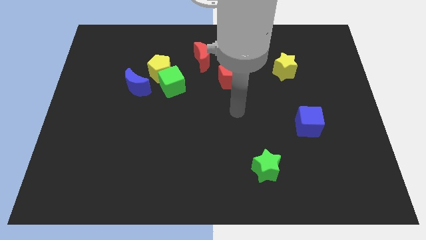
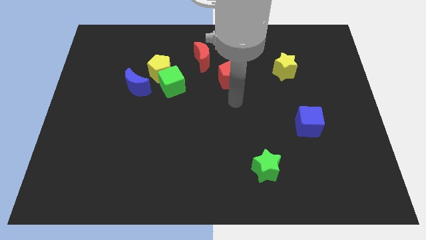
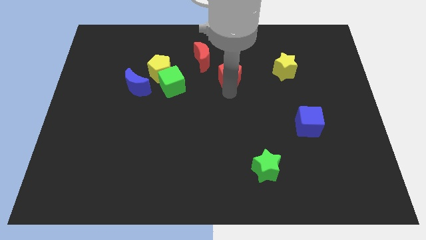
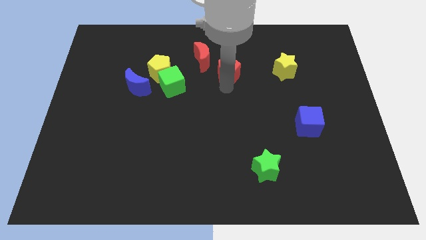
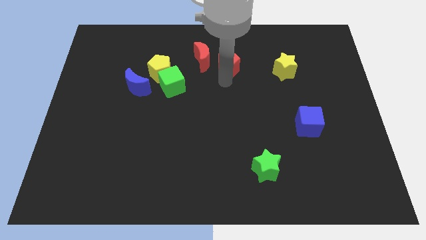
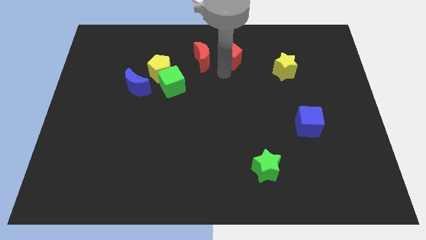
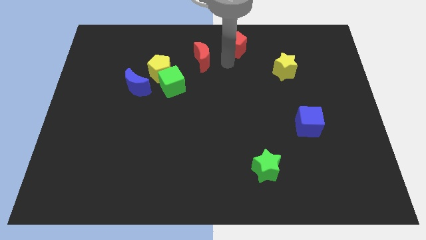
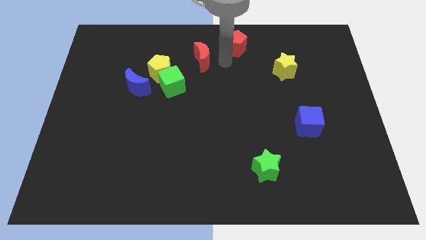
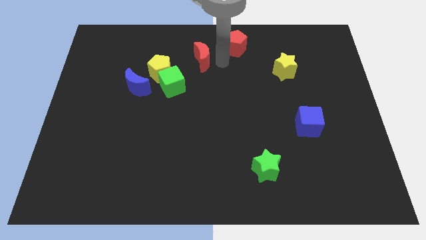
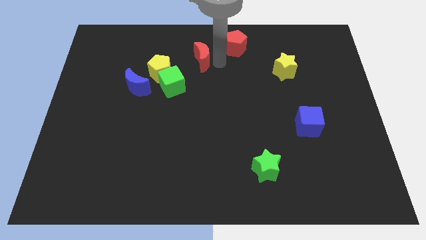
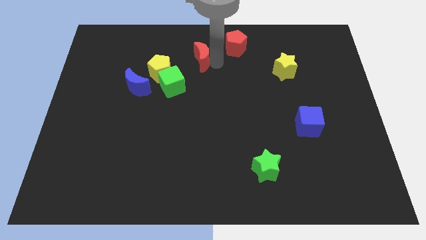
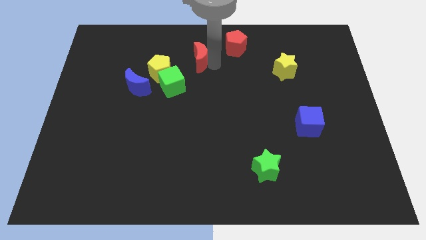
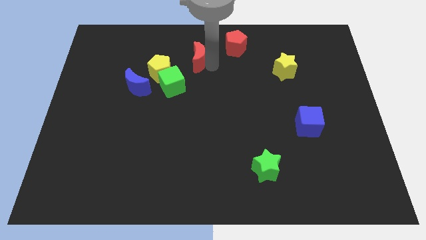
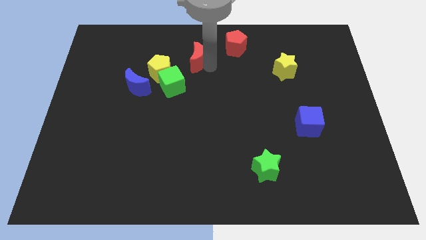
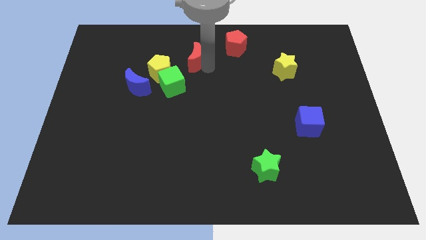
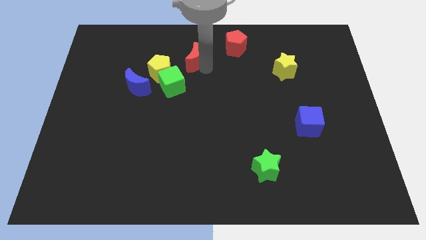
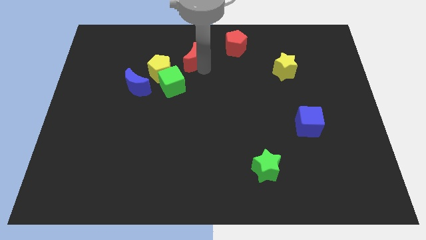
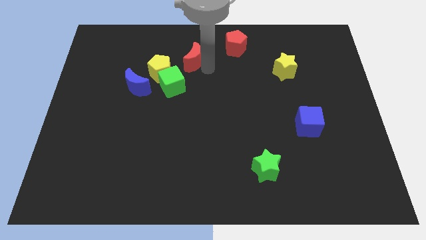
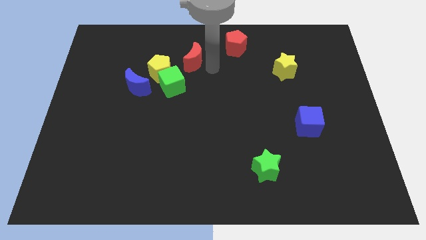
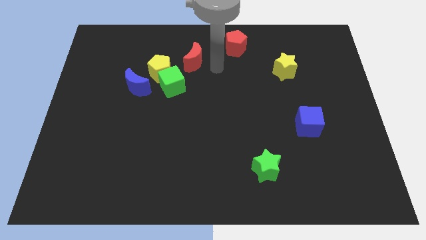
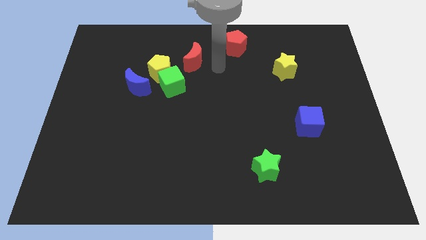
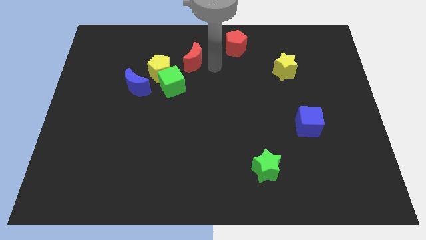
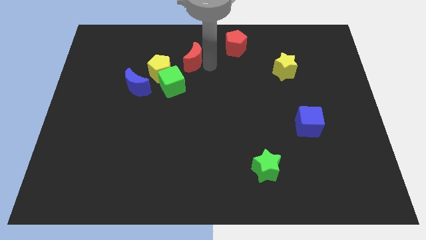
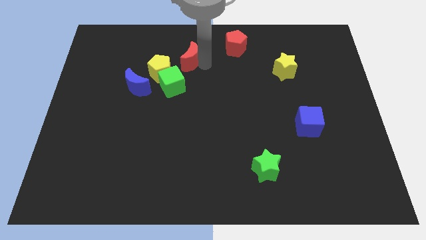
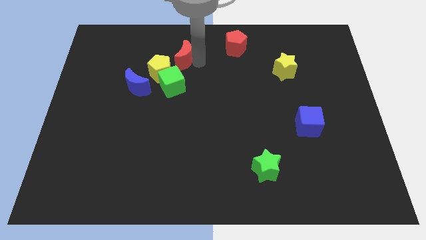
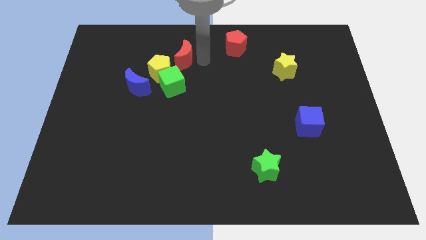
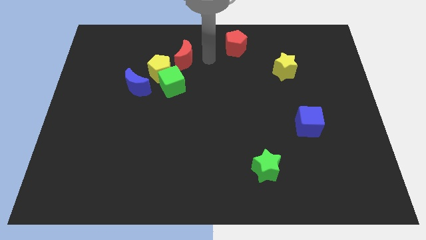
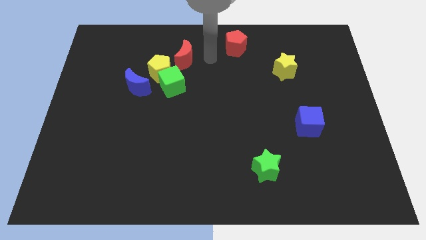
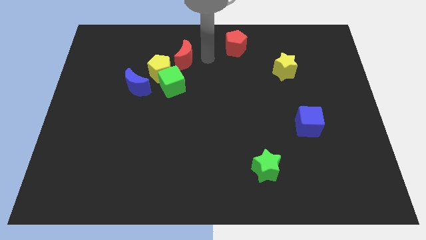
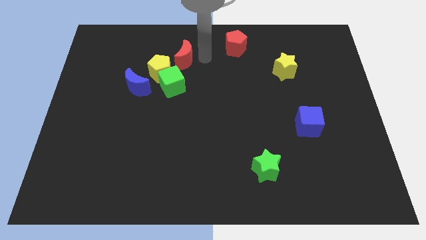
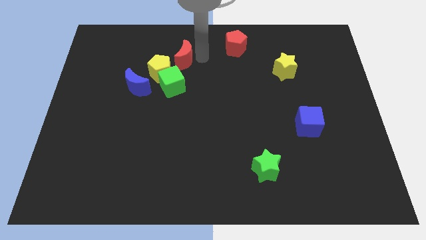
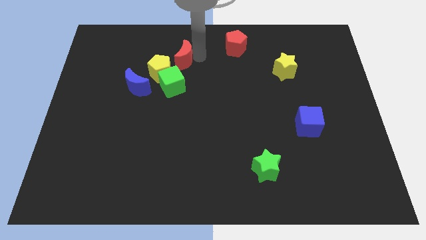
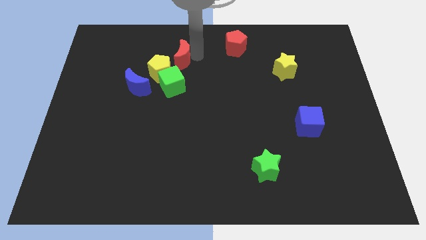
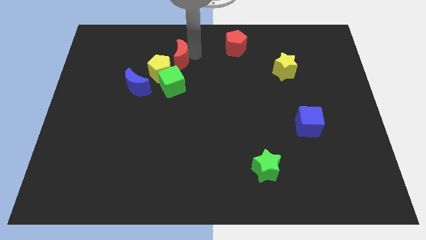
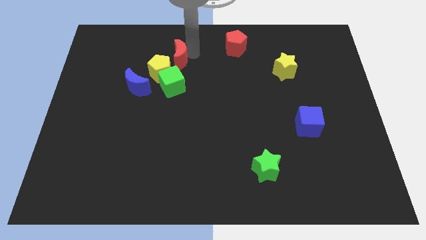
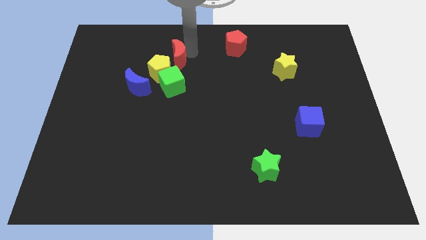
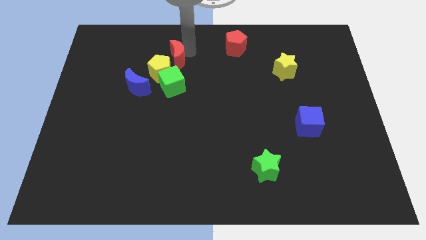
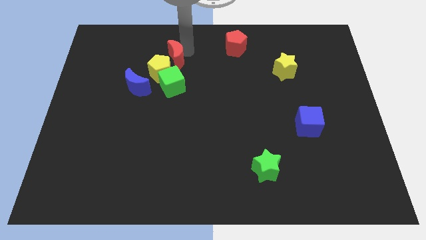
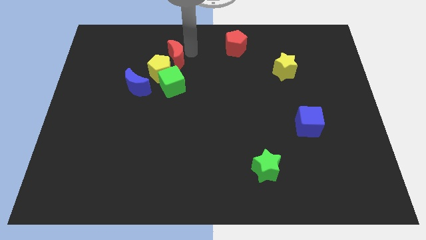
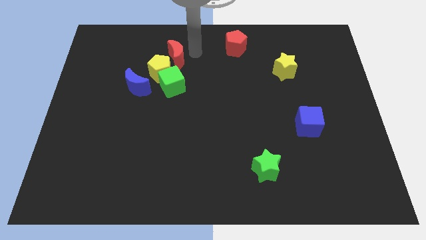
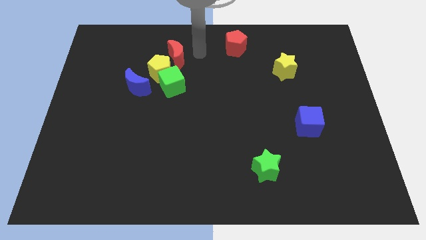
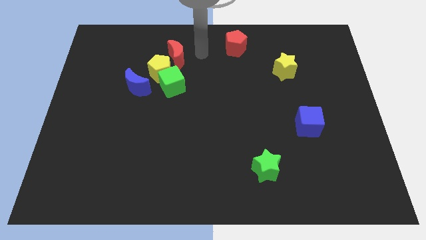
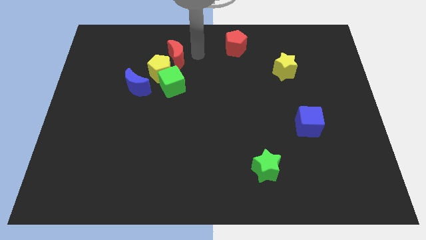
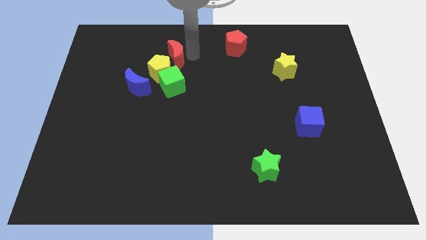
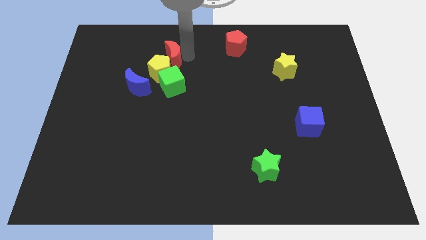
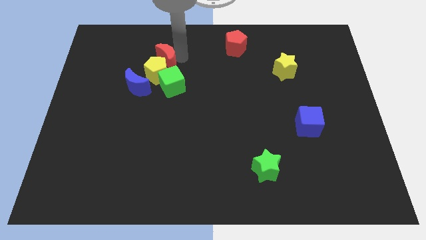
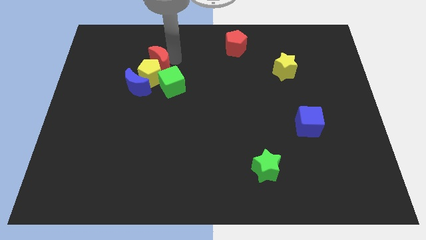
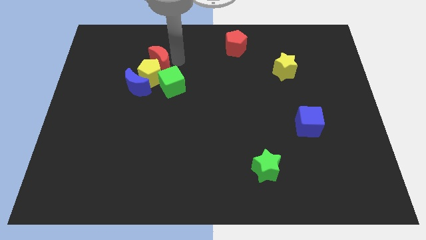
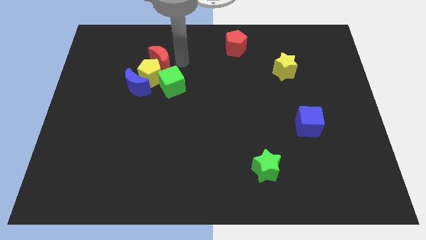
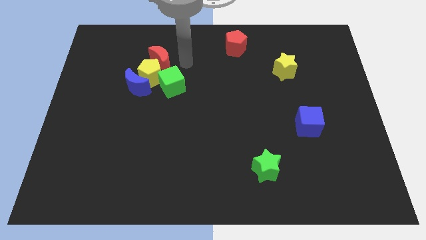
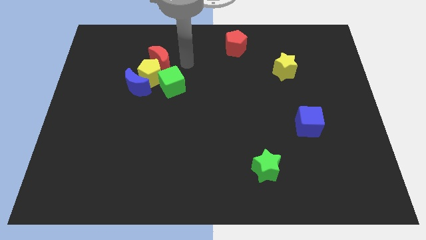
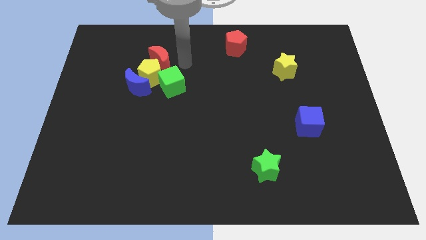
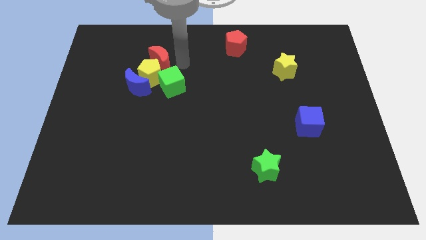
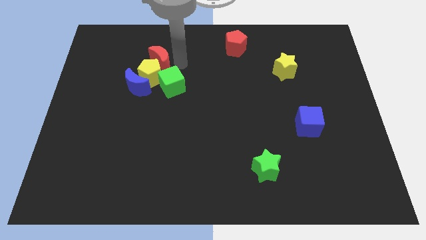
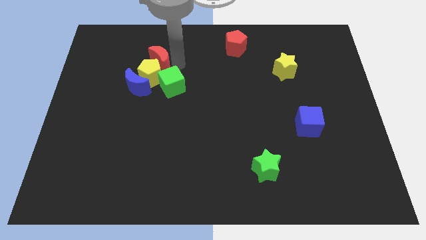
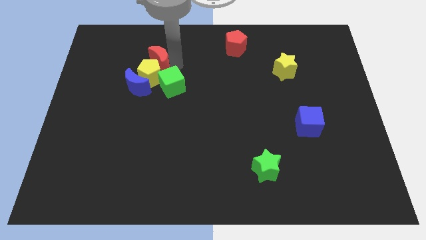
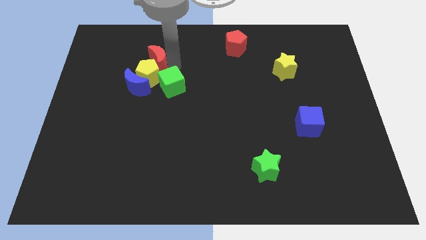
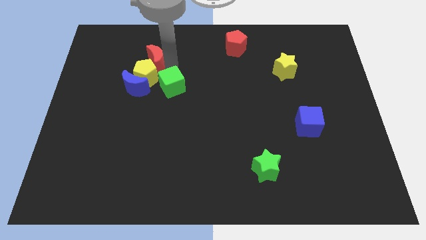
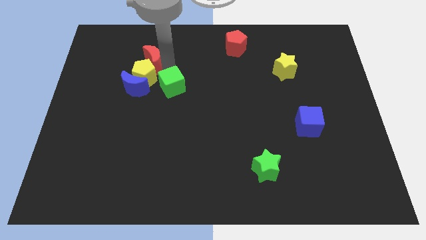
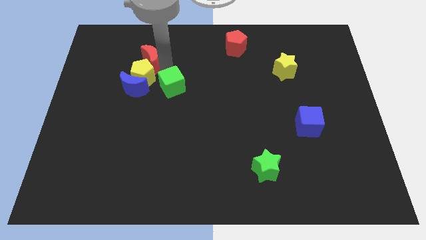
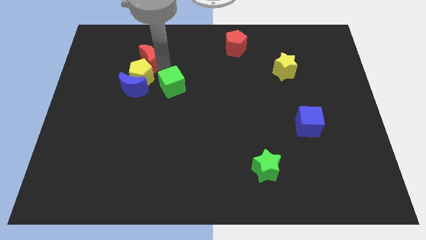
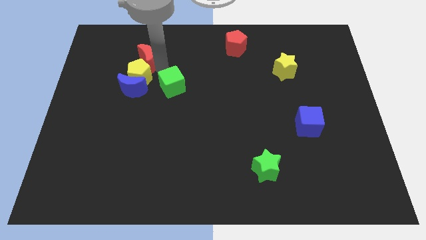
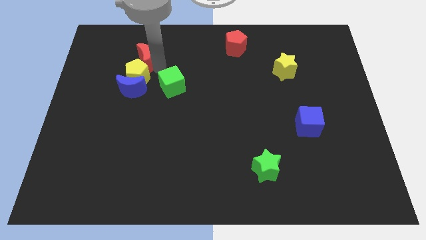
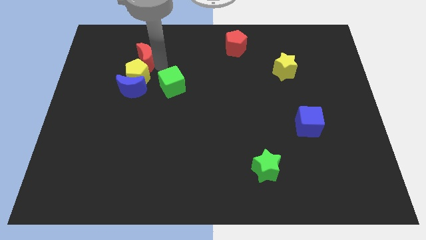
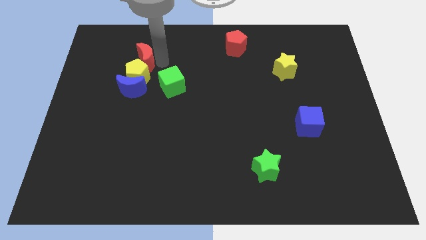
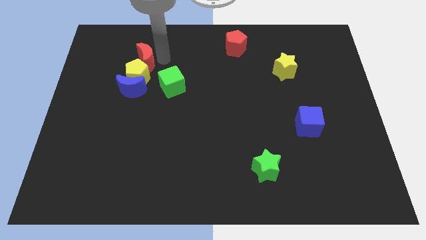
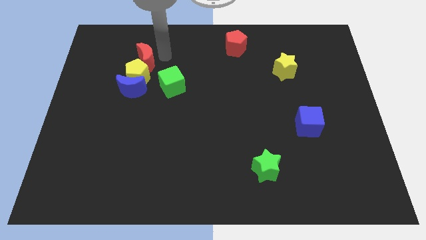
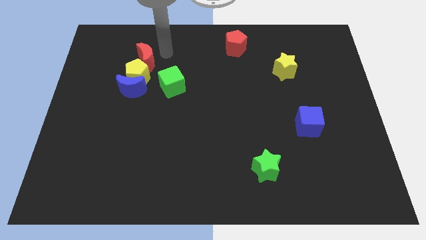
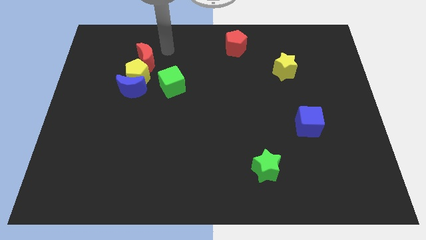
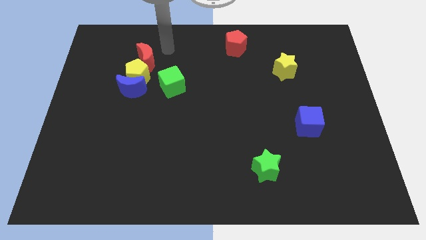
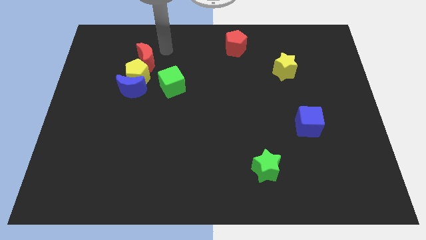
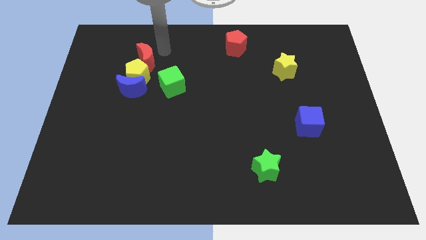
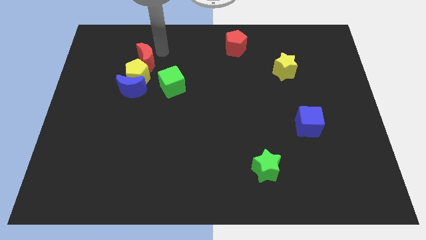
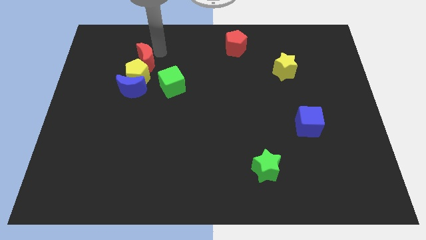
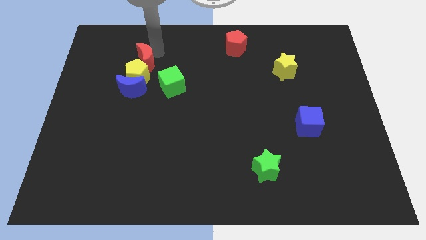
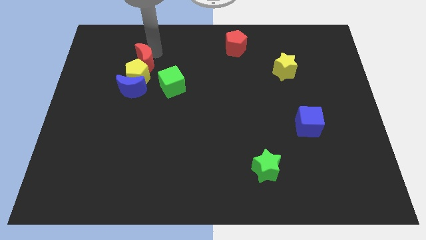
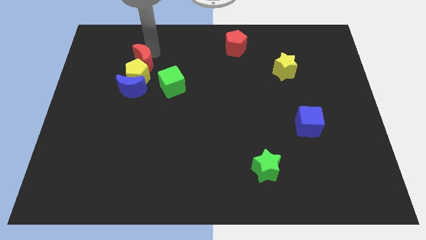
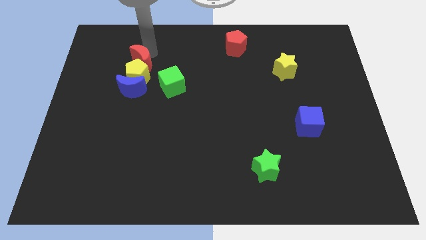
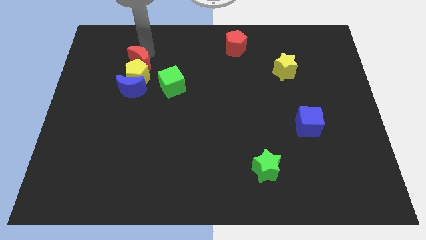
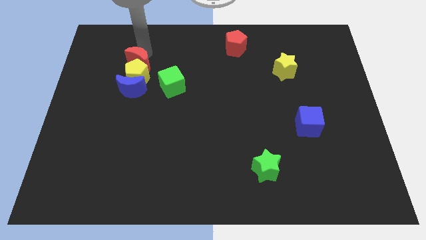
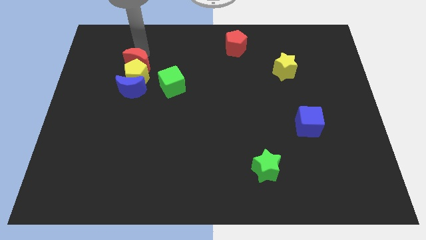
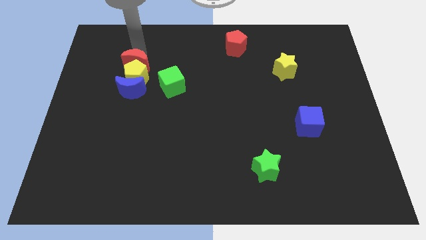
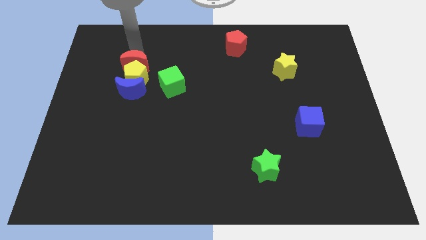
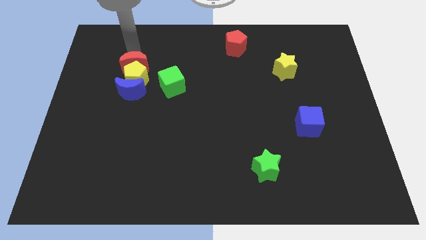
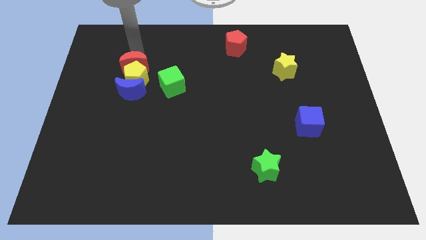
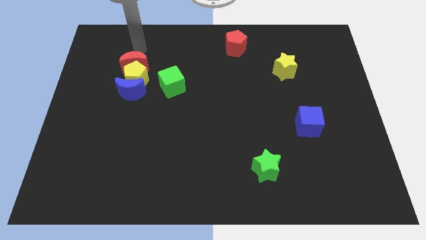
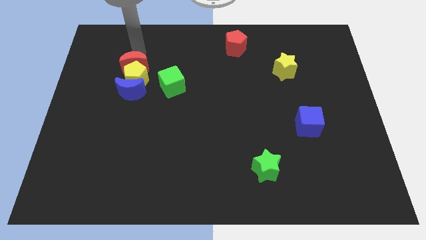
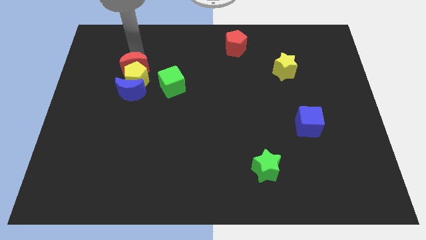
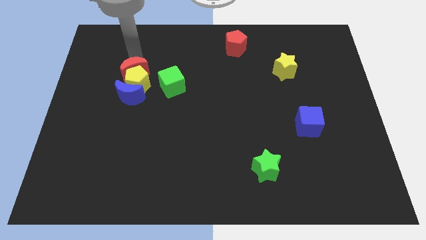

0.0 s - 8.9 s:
move the red moon left of the green cube
